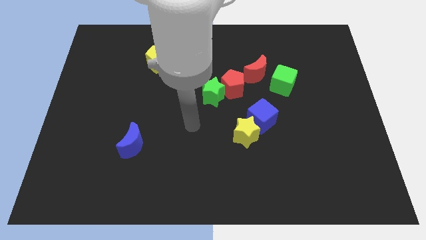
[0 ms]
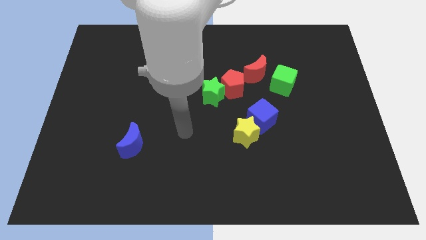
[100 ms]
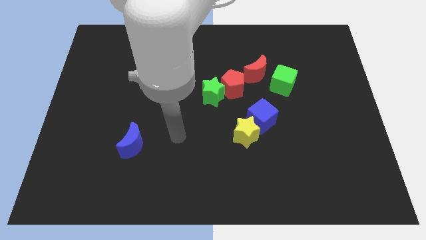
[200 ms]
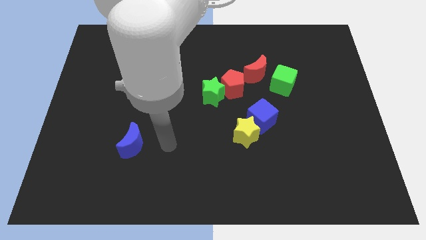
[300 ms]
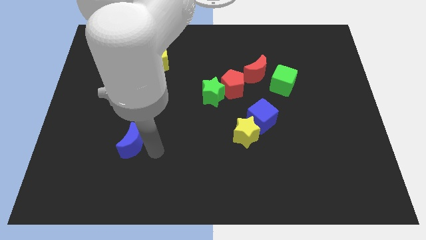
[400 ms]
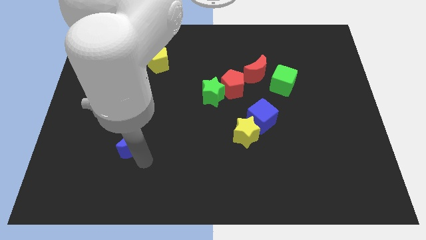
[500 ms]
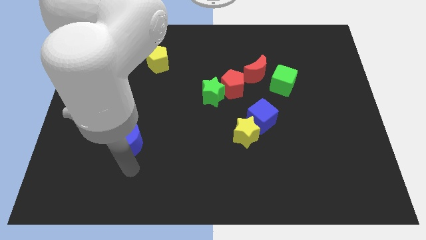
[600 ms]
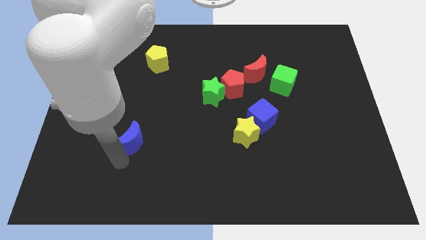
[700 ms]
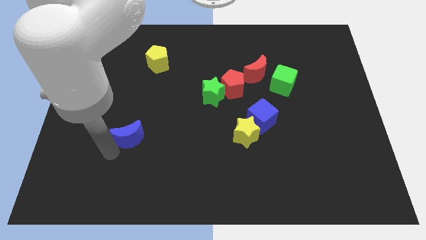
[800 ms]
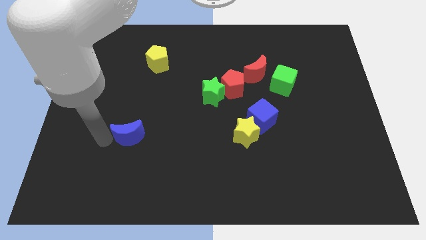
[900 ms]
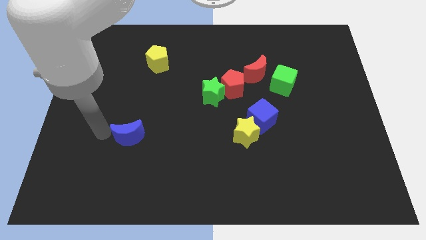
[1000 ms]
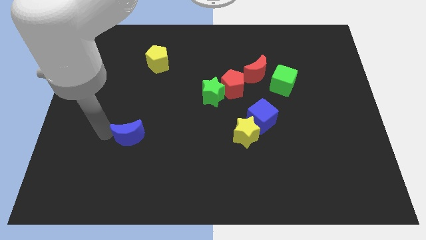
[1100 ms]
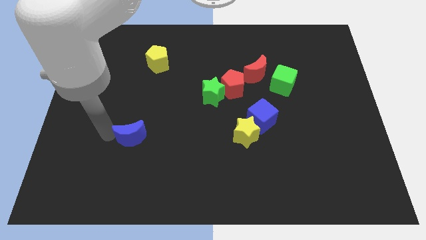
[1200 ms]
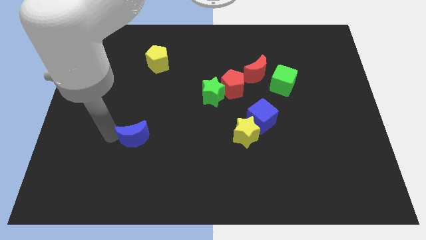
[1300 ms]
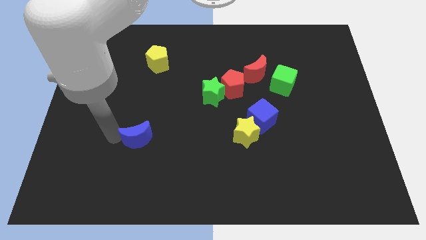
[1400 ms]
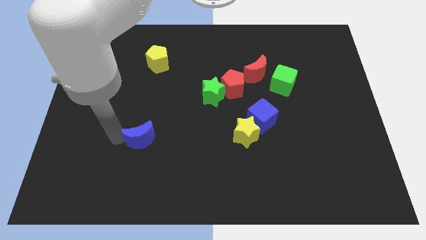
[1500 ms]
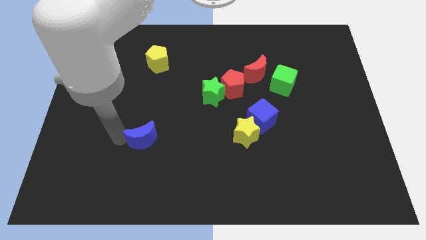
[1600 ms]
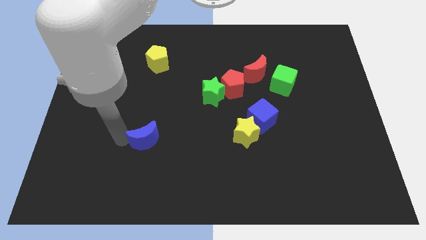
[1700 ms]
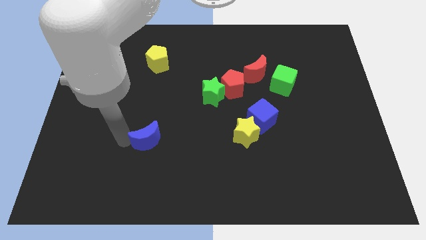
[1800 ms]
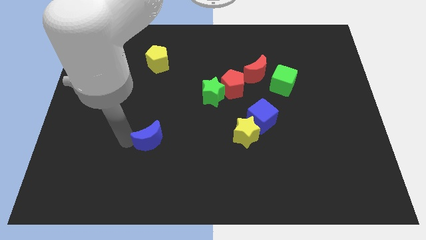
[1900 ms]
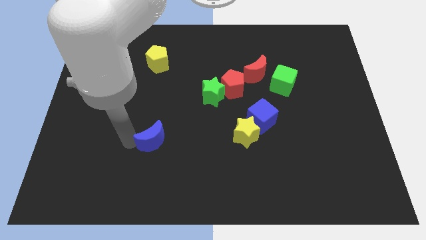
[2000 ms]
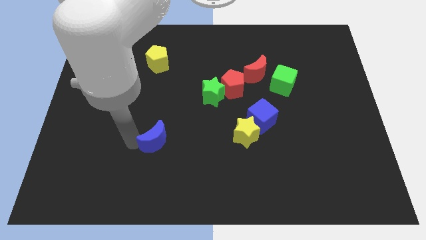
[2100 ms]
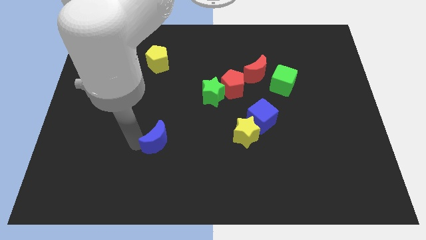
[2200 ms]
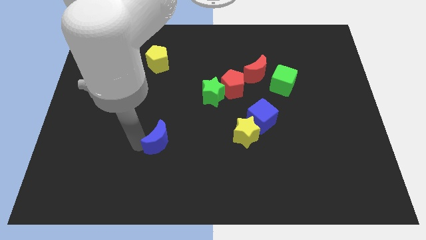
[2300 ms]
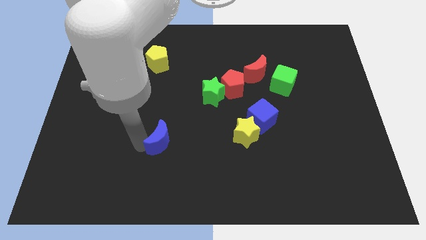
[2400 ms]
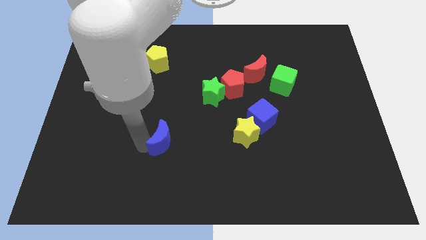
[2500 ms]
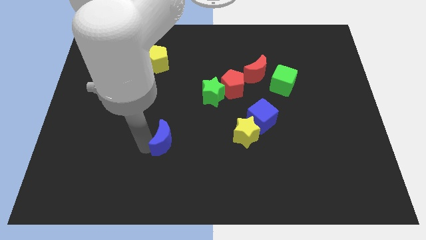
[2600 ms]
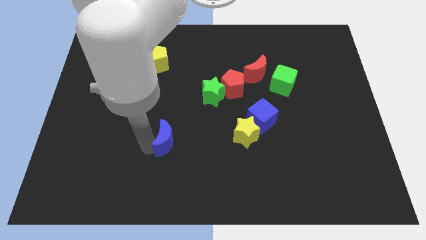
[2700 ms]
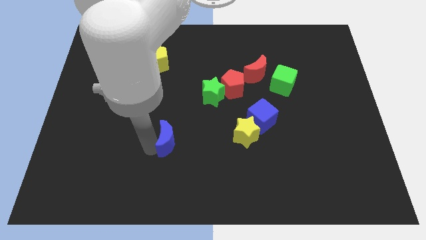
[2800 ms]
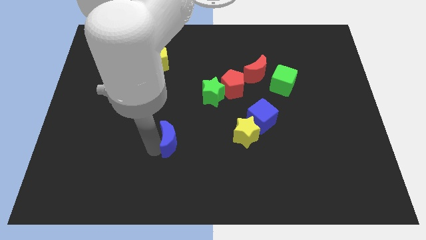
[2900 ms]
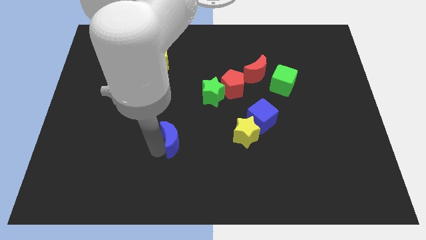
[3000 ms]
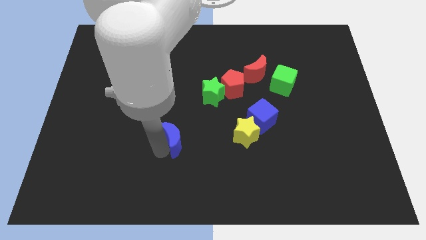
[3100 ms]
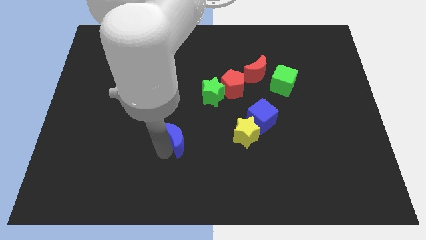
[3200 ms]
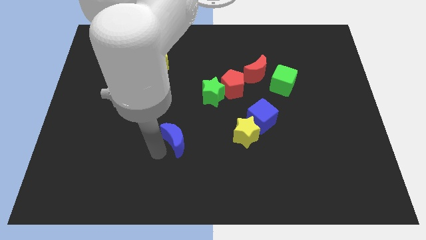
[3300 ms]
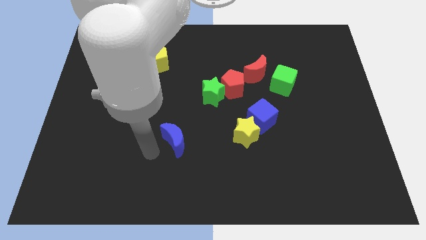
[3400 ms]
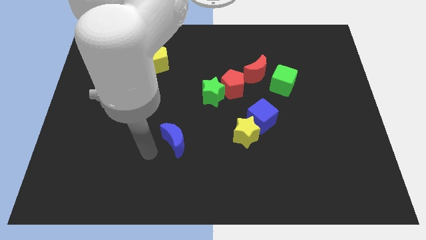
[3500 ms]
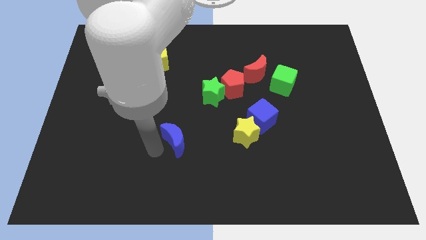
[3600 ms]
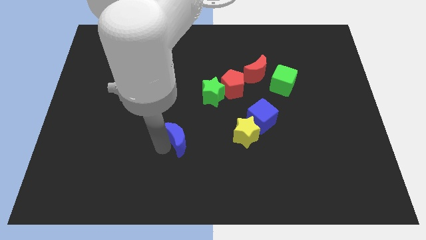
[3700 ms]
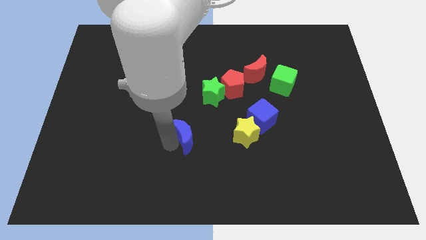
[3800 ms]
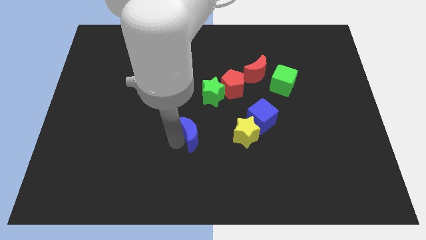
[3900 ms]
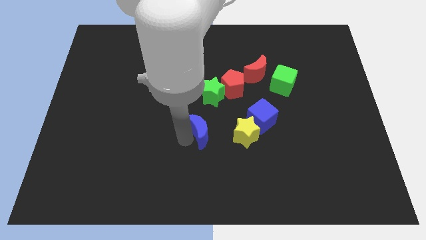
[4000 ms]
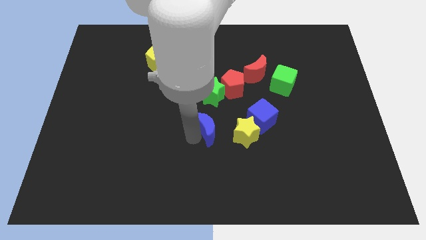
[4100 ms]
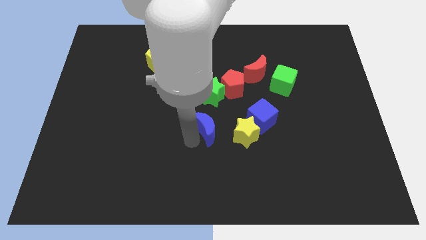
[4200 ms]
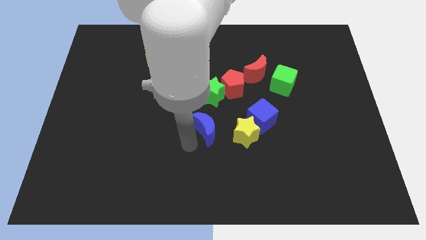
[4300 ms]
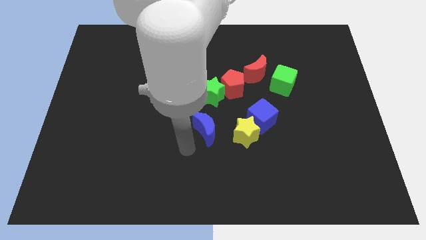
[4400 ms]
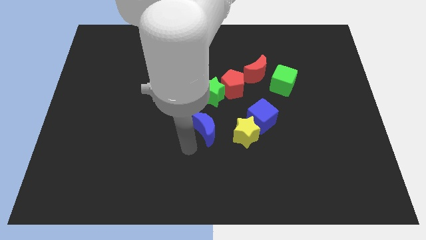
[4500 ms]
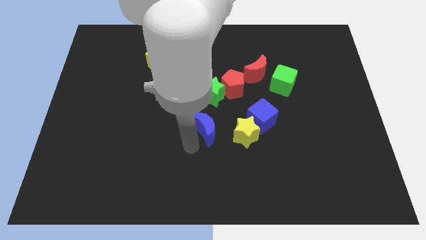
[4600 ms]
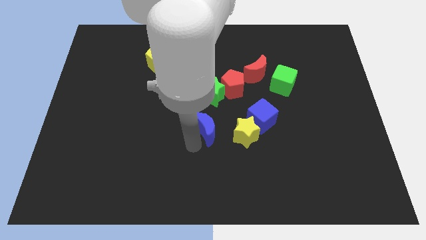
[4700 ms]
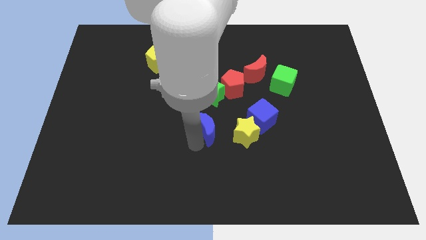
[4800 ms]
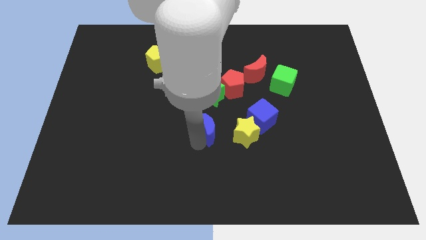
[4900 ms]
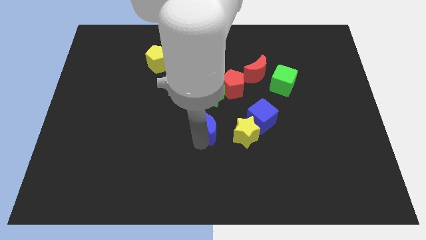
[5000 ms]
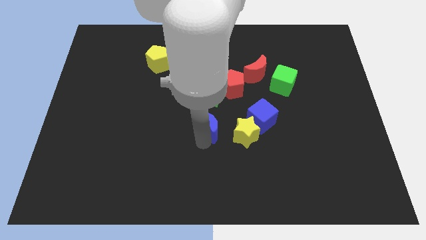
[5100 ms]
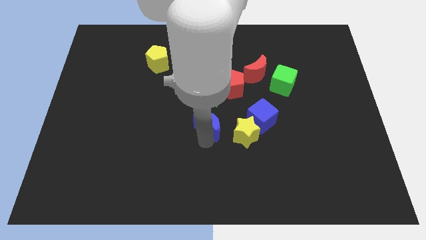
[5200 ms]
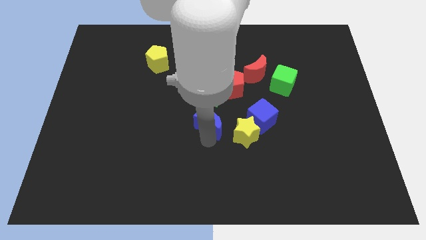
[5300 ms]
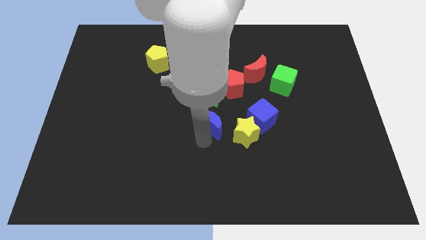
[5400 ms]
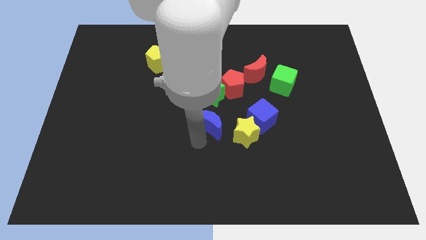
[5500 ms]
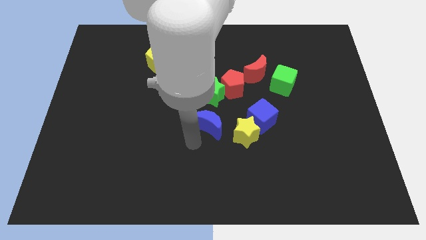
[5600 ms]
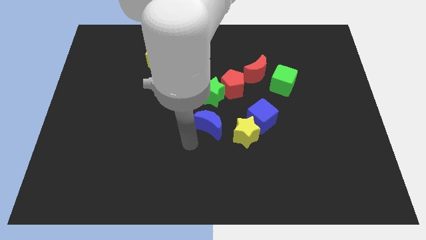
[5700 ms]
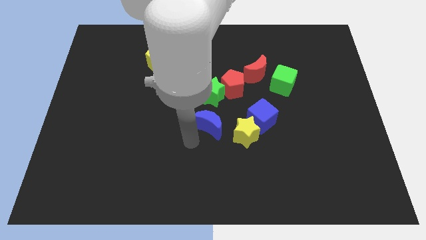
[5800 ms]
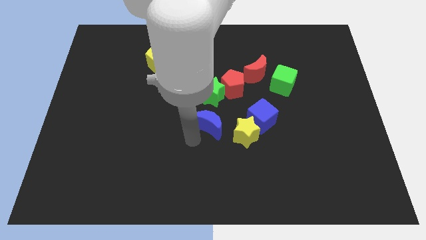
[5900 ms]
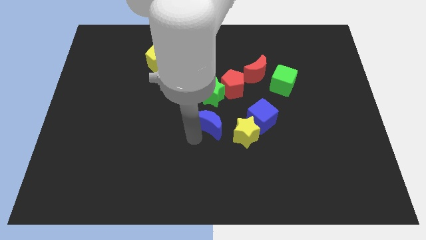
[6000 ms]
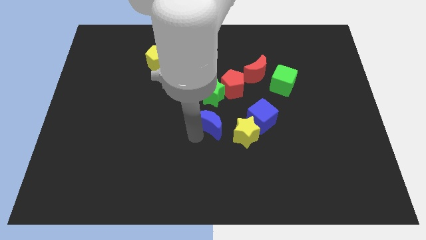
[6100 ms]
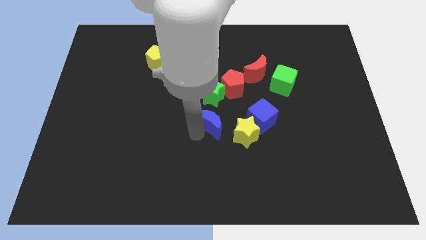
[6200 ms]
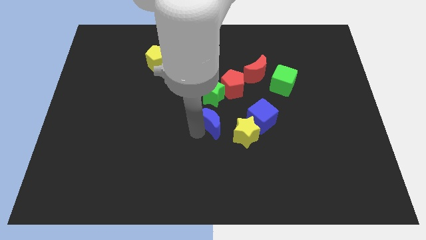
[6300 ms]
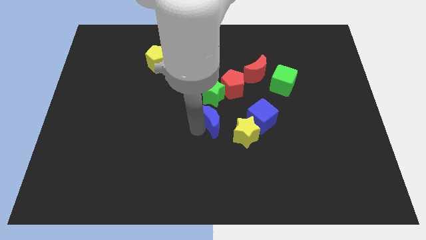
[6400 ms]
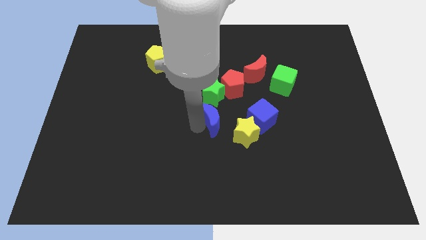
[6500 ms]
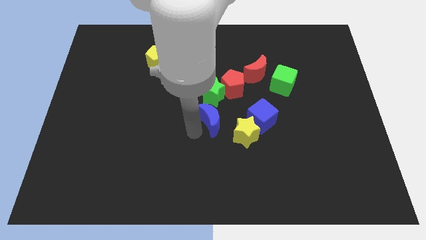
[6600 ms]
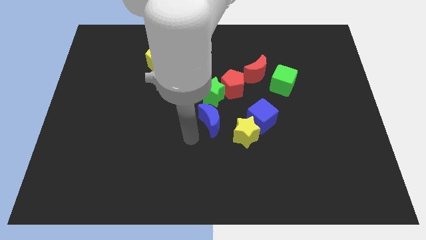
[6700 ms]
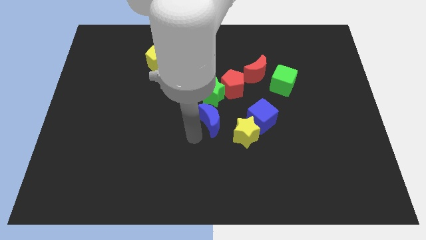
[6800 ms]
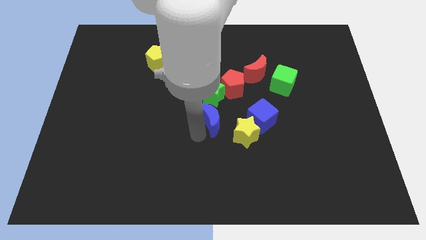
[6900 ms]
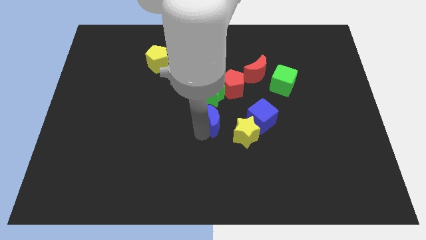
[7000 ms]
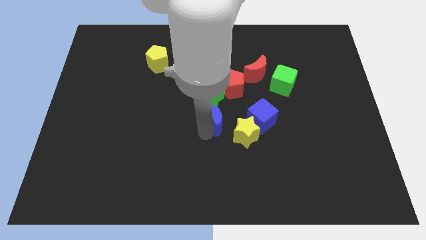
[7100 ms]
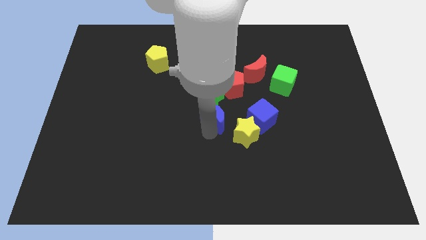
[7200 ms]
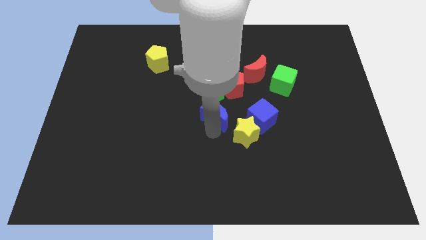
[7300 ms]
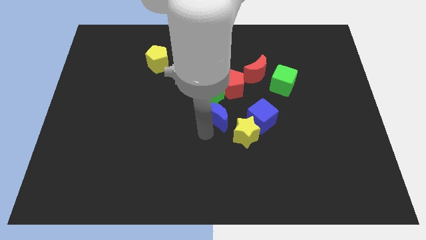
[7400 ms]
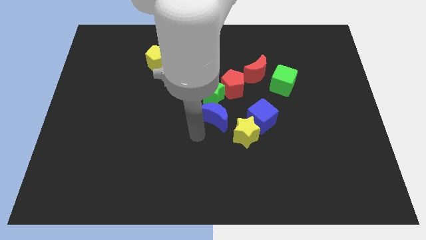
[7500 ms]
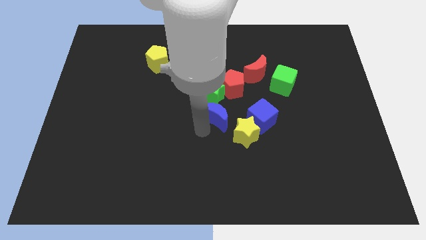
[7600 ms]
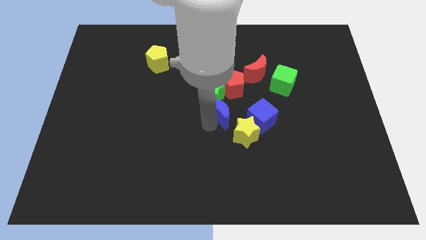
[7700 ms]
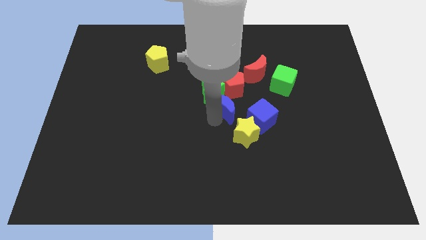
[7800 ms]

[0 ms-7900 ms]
slide the blue moon to the top of the yellow star
